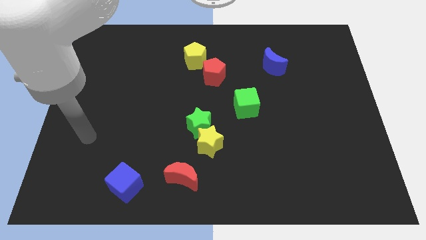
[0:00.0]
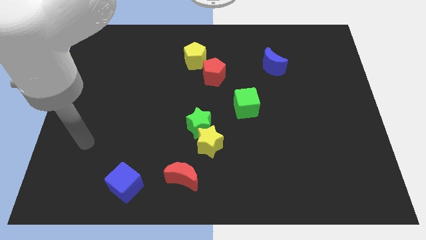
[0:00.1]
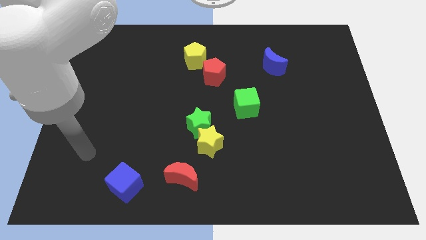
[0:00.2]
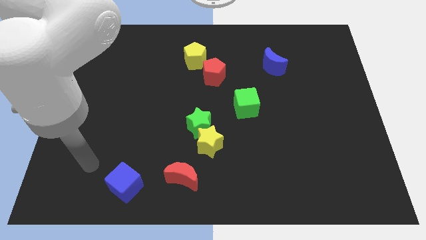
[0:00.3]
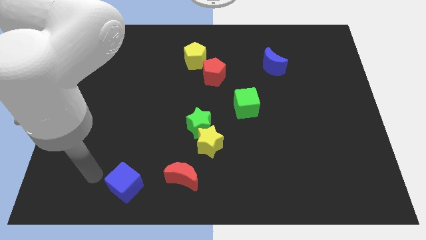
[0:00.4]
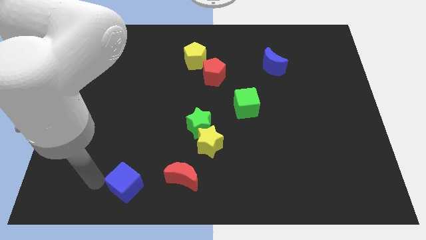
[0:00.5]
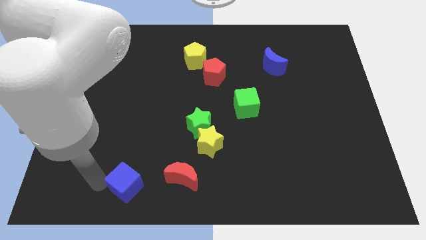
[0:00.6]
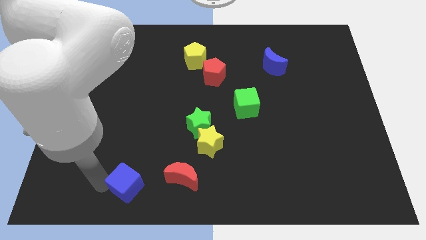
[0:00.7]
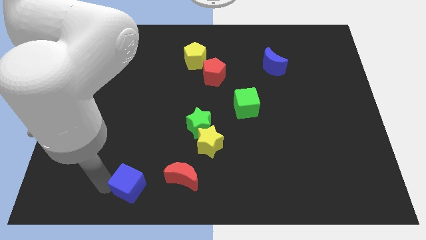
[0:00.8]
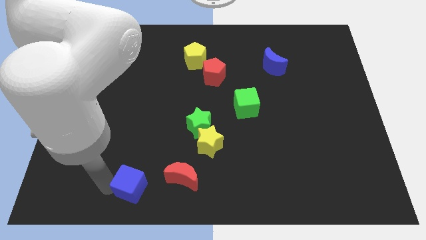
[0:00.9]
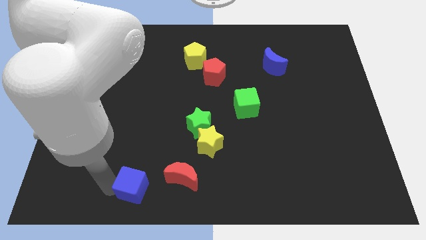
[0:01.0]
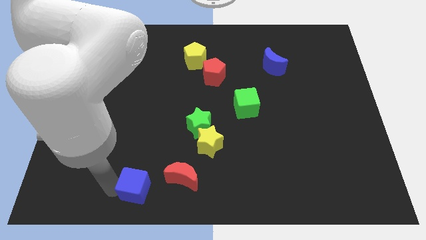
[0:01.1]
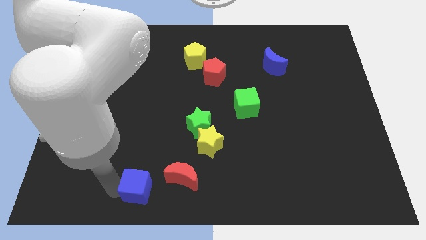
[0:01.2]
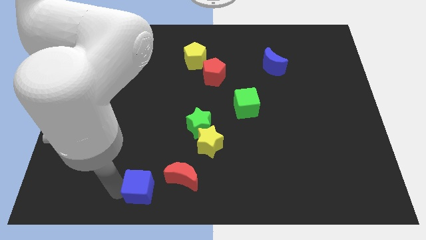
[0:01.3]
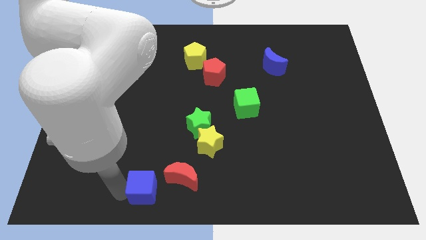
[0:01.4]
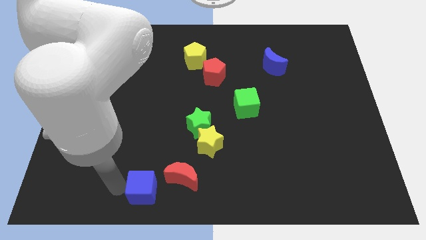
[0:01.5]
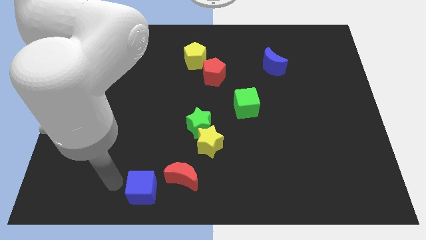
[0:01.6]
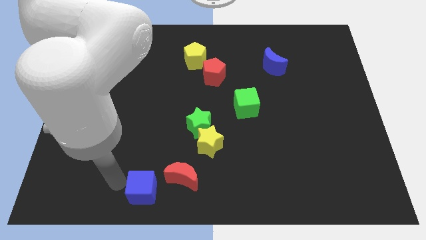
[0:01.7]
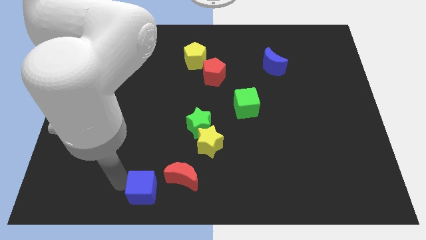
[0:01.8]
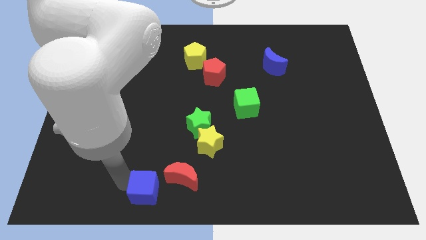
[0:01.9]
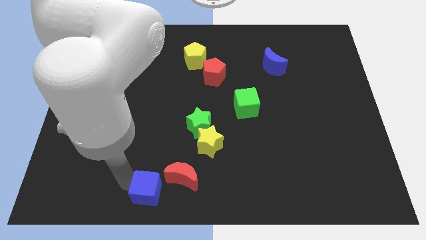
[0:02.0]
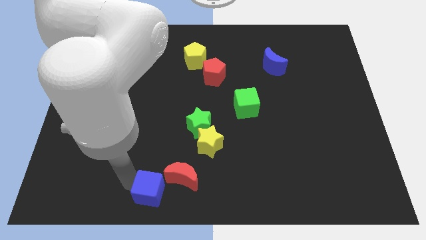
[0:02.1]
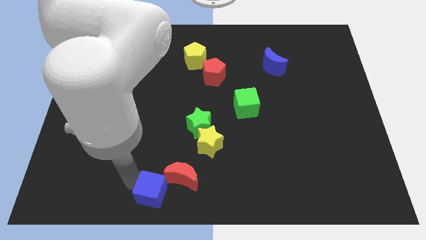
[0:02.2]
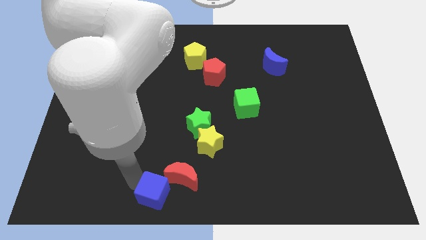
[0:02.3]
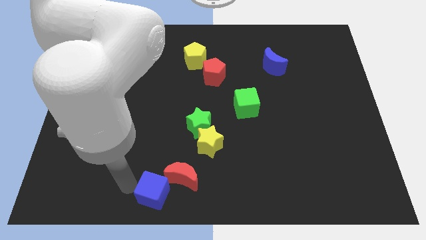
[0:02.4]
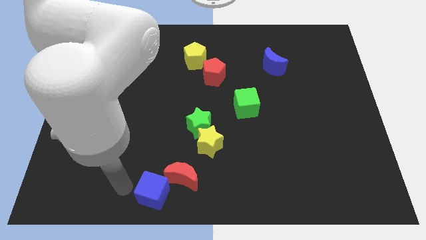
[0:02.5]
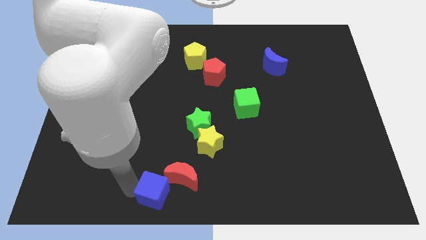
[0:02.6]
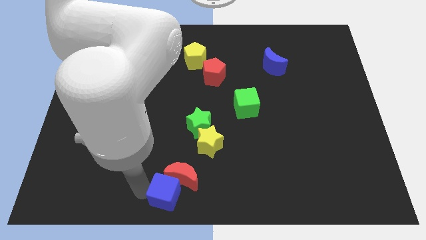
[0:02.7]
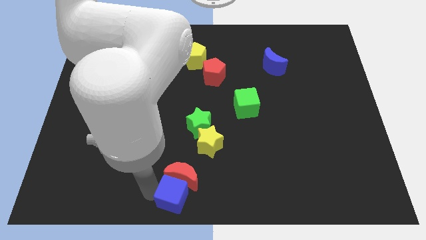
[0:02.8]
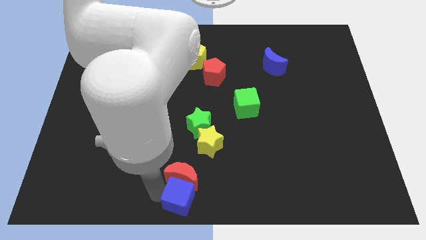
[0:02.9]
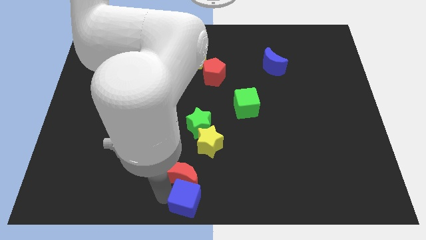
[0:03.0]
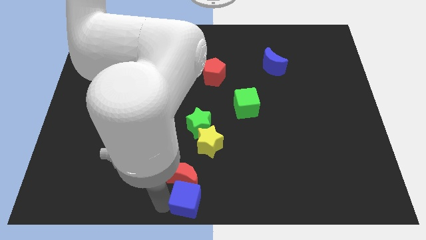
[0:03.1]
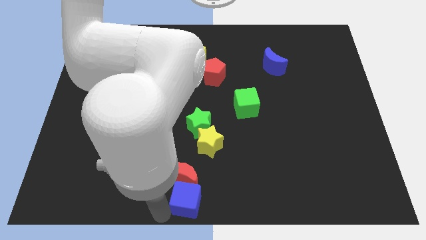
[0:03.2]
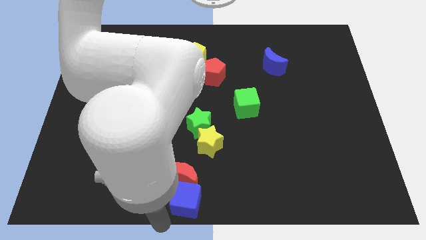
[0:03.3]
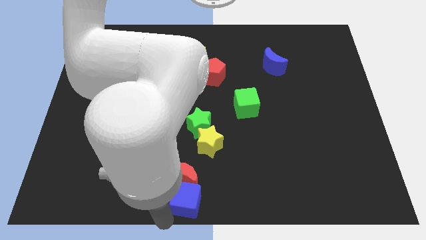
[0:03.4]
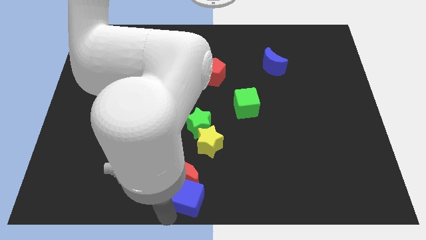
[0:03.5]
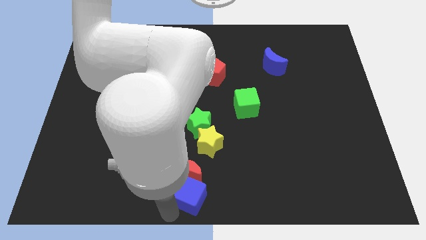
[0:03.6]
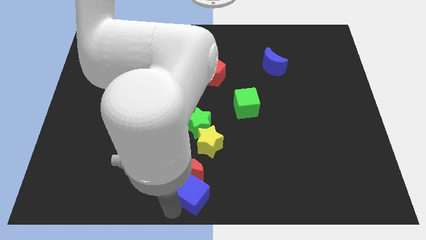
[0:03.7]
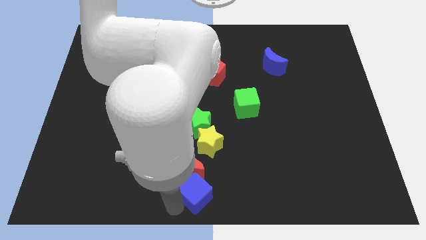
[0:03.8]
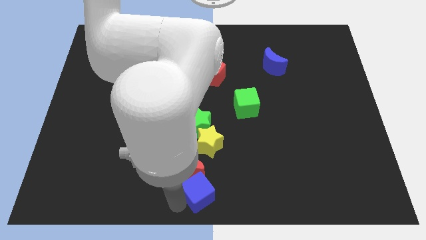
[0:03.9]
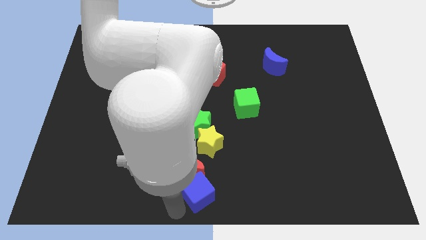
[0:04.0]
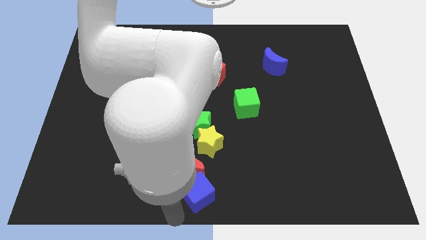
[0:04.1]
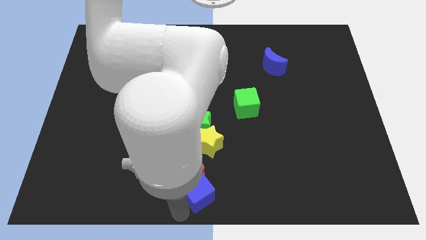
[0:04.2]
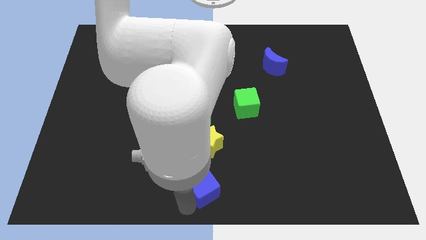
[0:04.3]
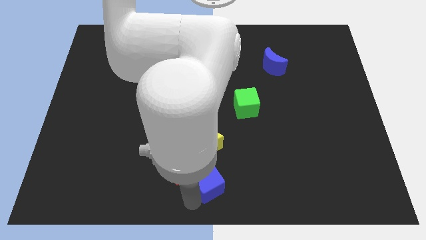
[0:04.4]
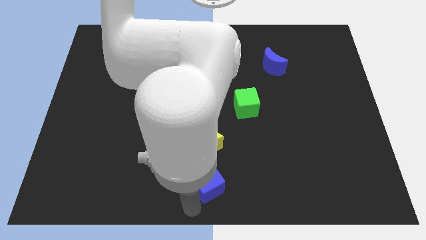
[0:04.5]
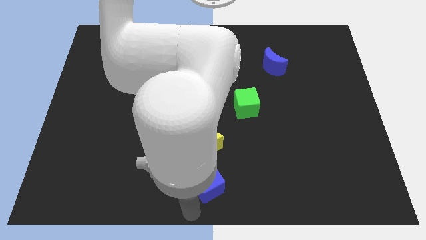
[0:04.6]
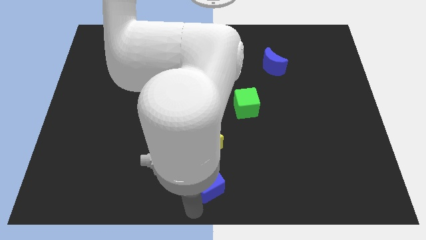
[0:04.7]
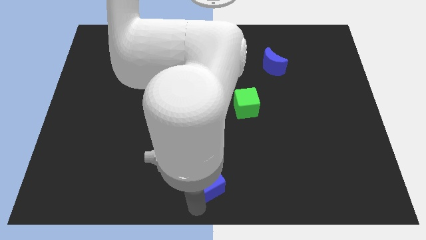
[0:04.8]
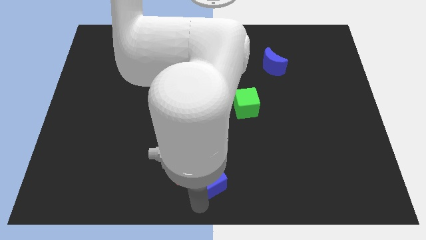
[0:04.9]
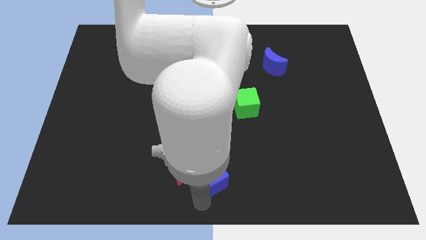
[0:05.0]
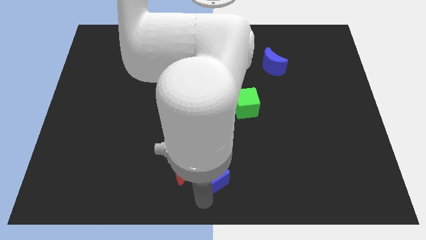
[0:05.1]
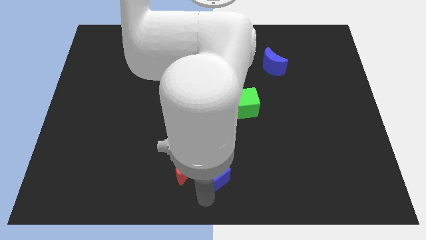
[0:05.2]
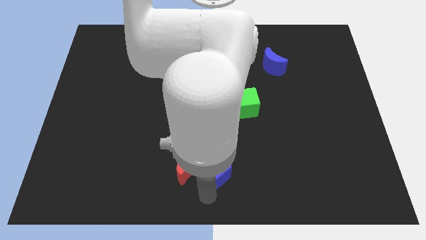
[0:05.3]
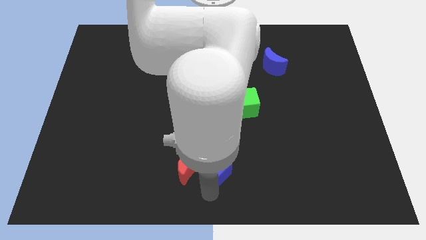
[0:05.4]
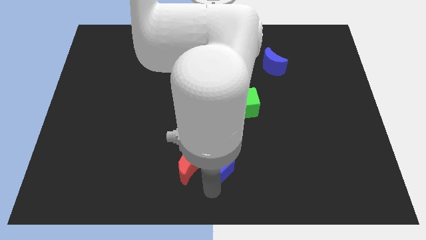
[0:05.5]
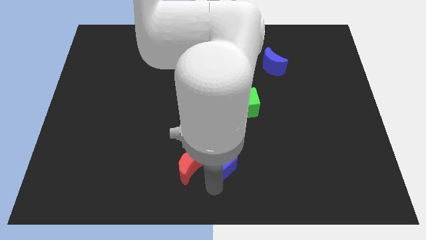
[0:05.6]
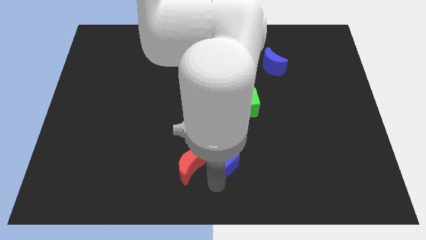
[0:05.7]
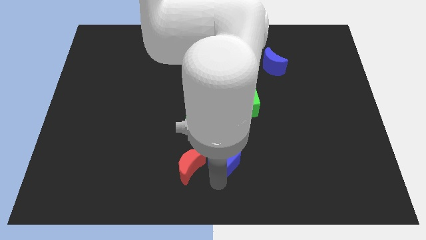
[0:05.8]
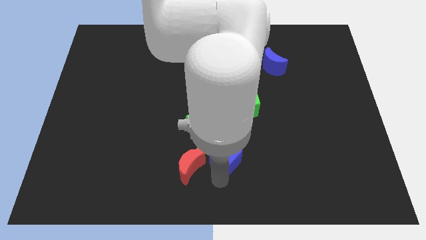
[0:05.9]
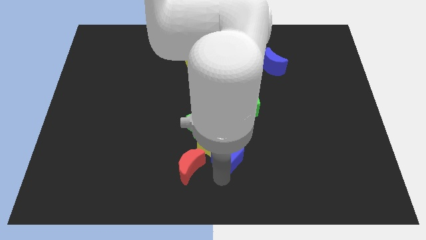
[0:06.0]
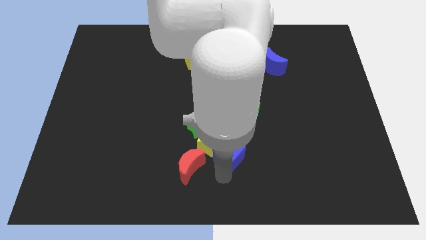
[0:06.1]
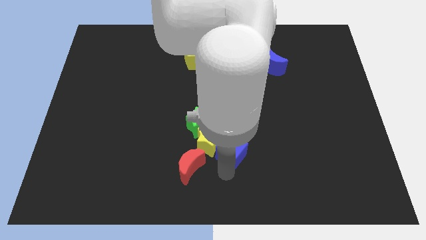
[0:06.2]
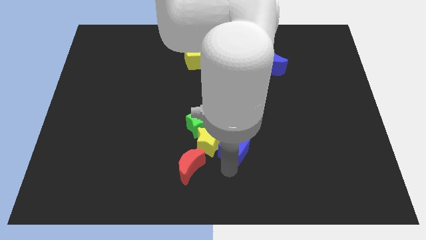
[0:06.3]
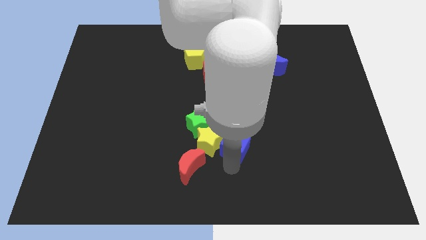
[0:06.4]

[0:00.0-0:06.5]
move the blue cube to the top right side of the yellow star
